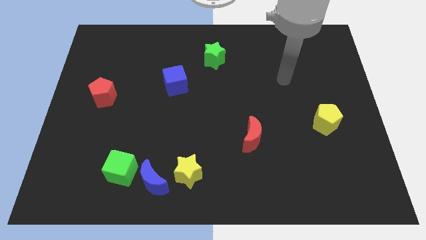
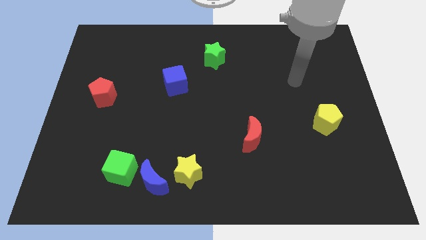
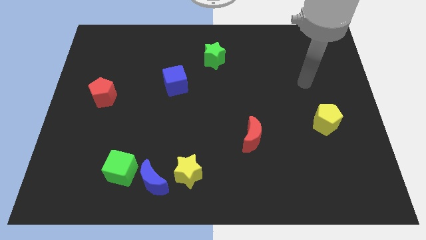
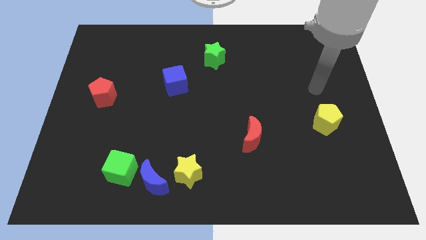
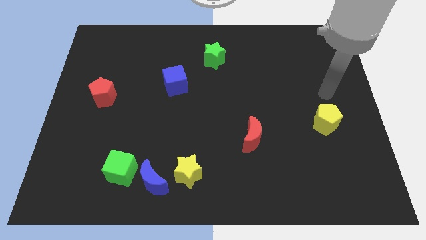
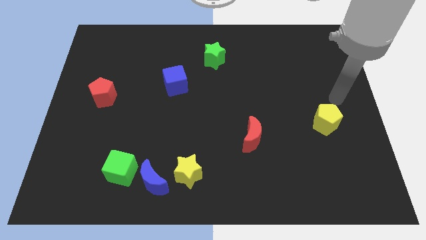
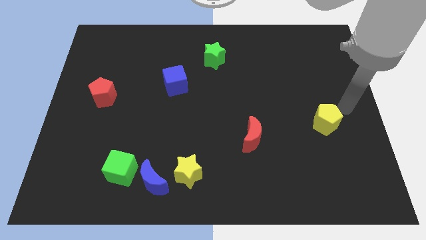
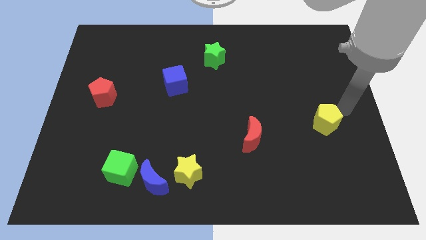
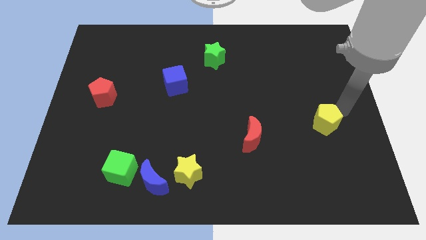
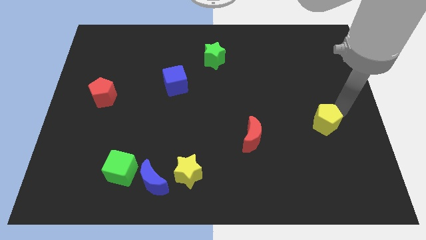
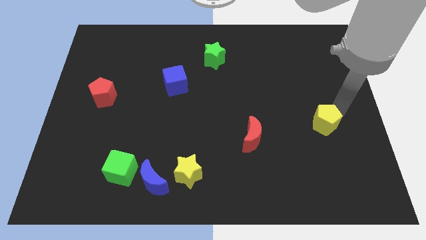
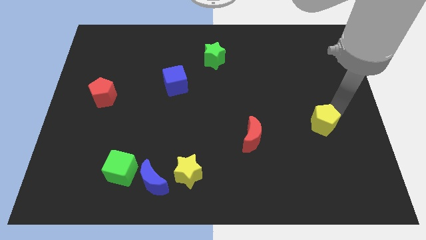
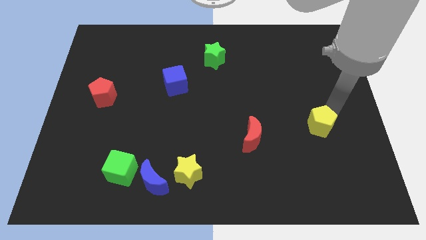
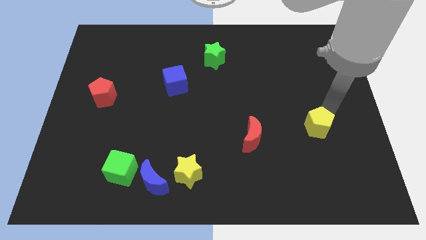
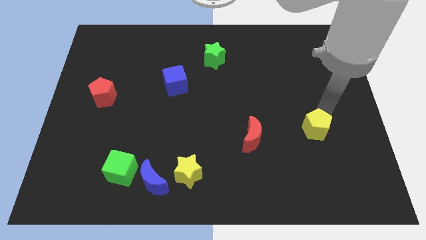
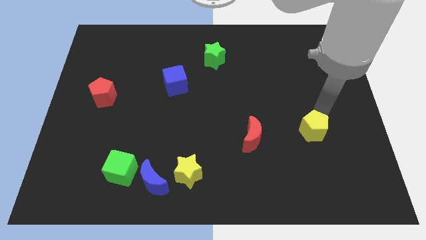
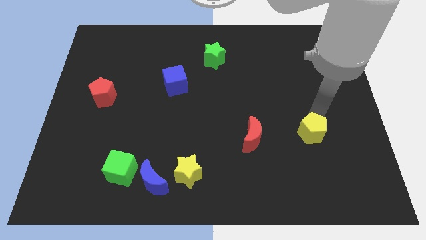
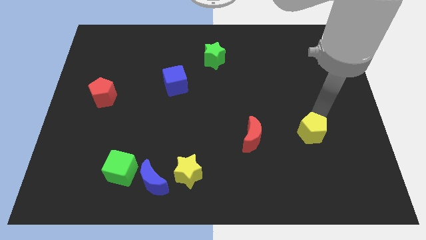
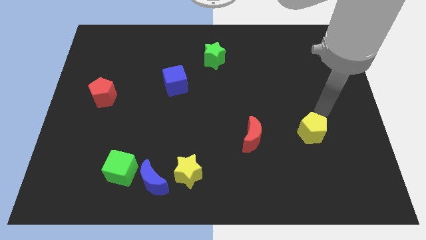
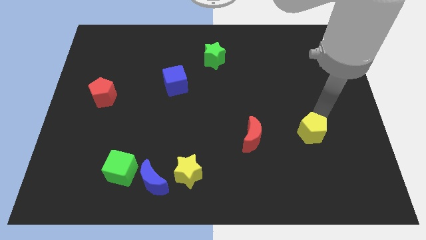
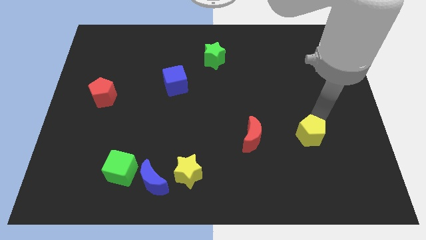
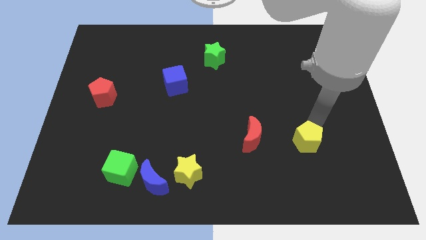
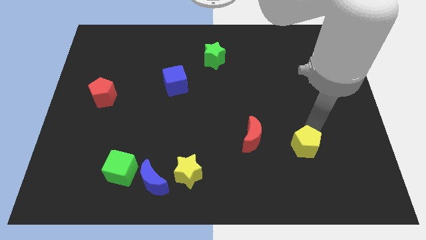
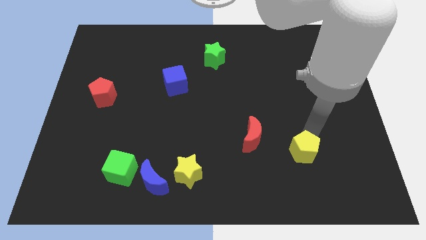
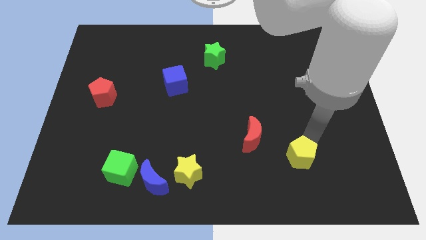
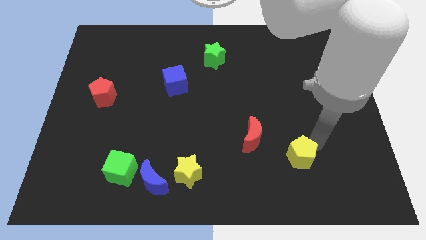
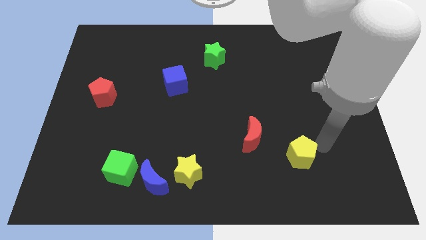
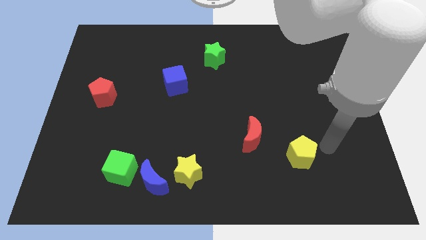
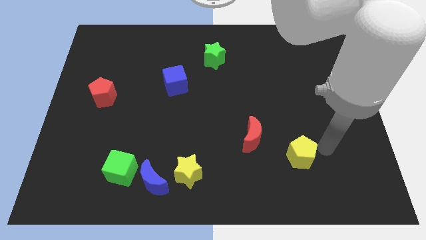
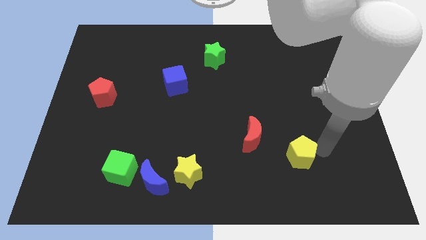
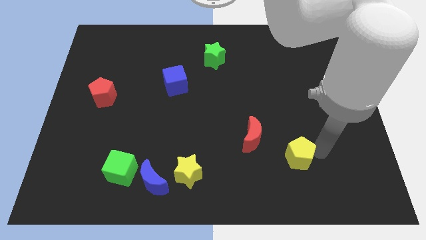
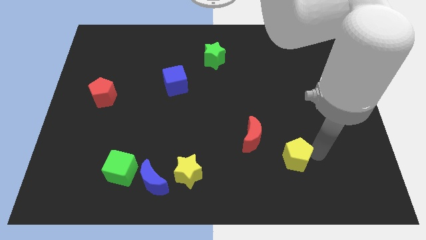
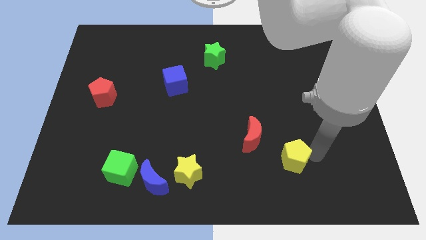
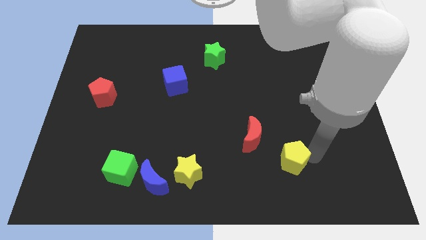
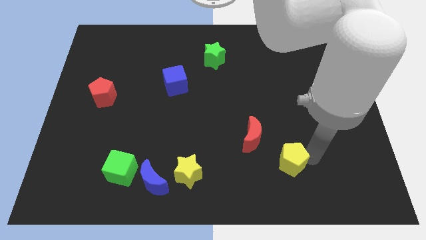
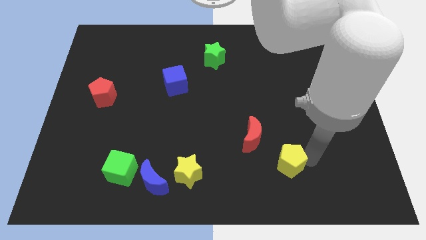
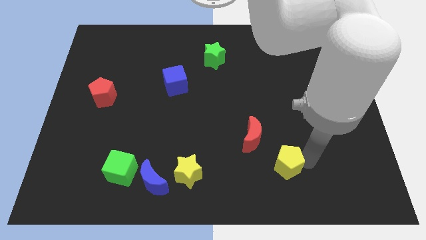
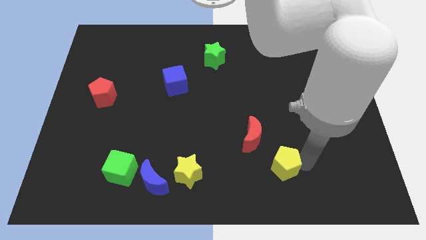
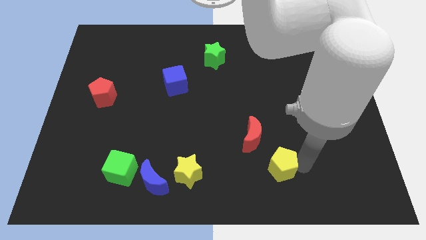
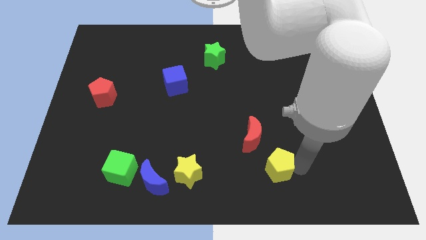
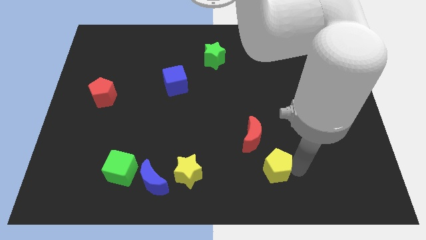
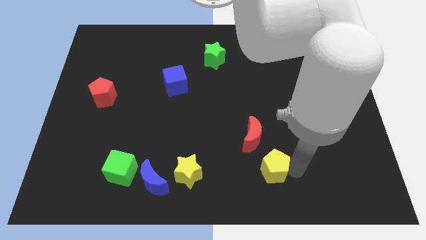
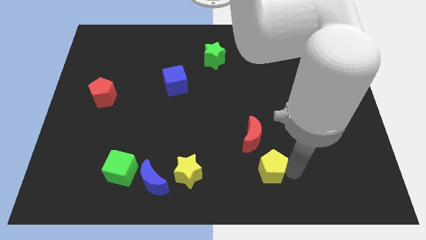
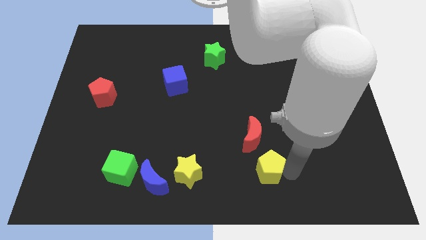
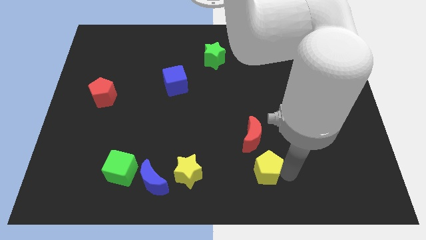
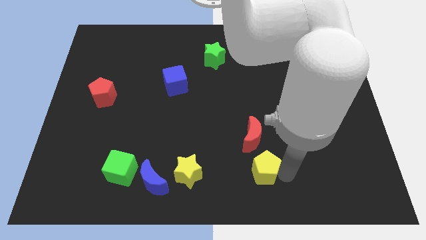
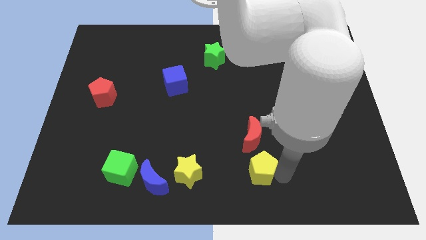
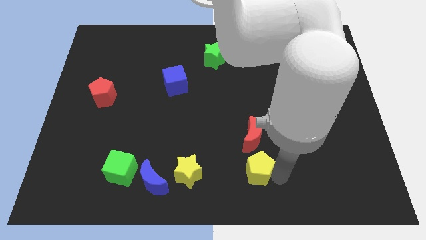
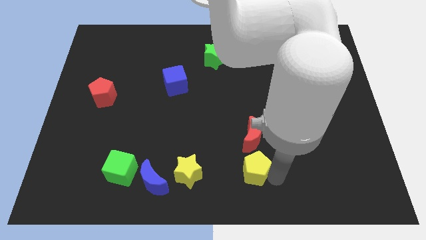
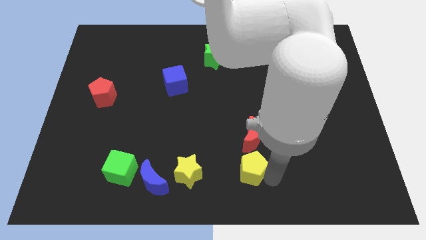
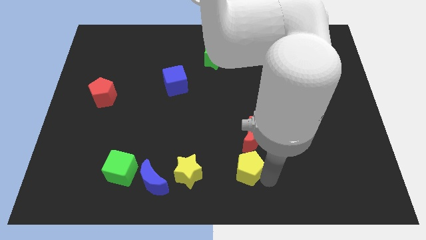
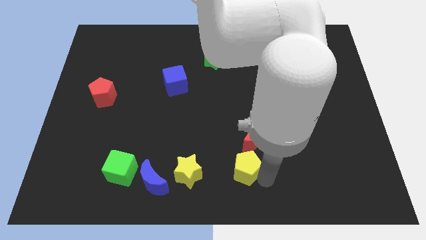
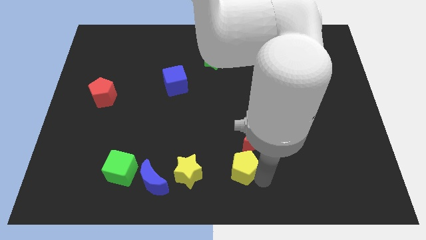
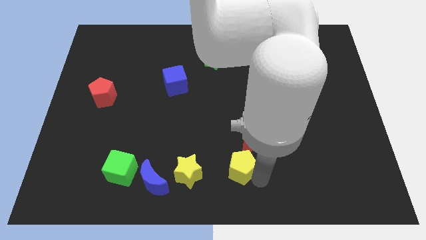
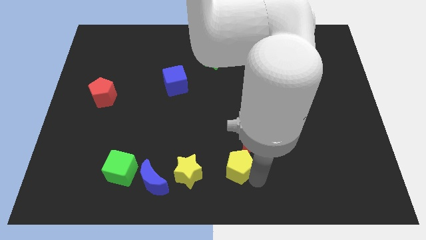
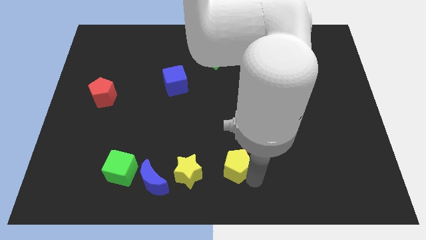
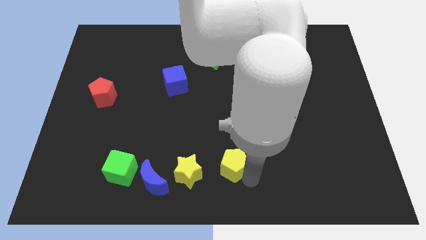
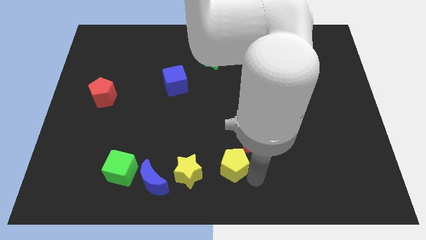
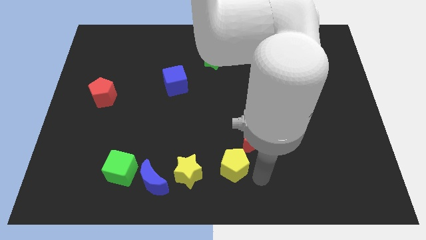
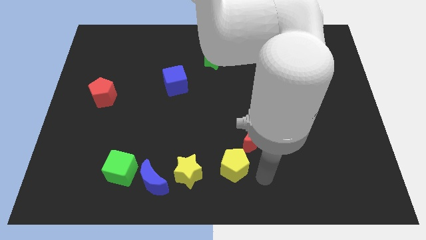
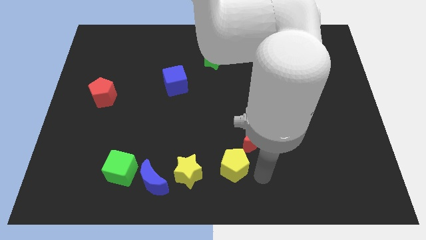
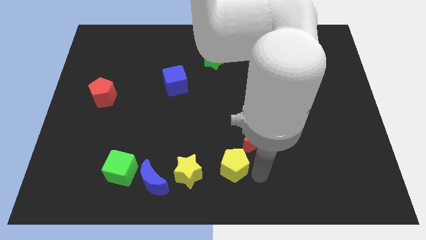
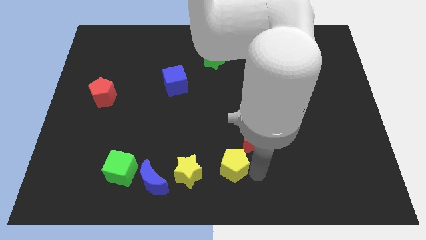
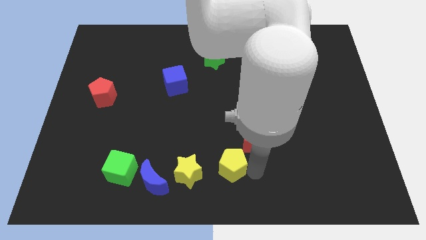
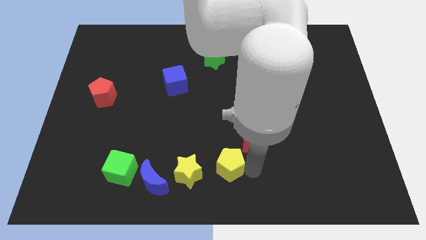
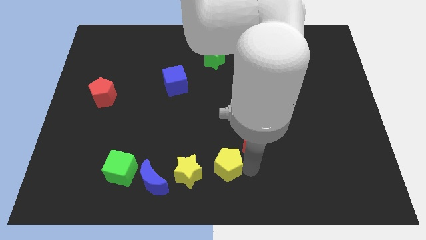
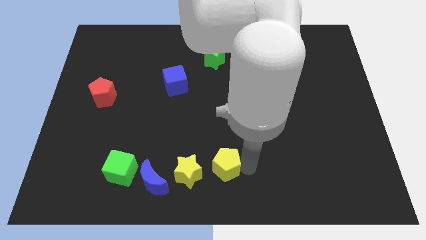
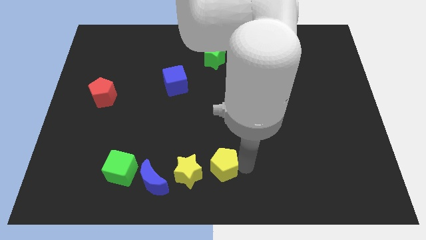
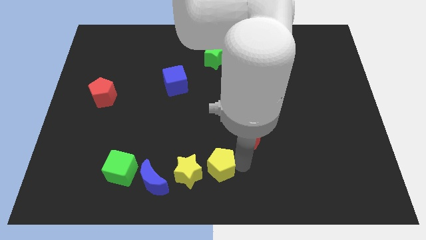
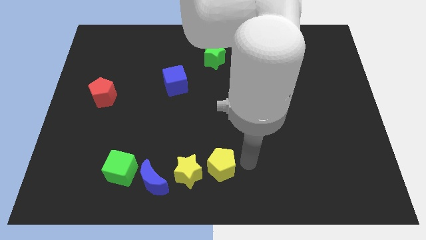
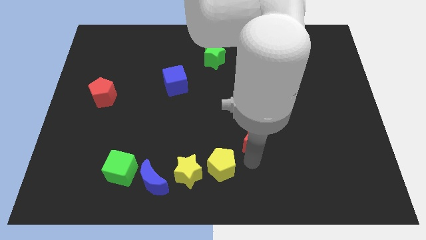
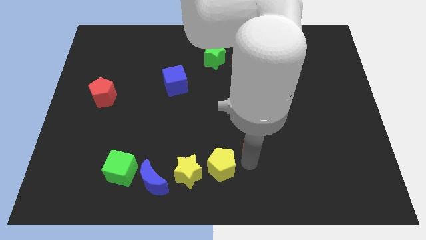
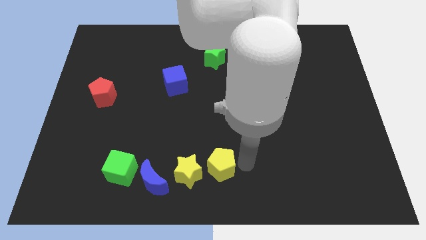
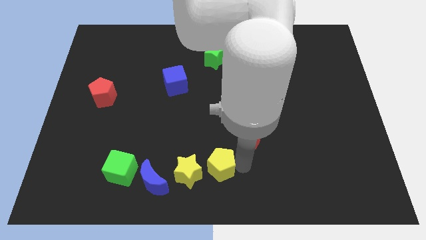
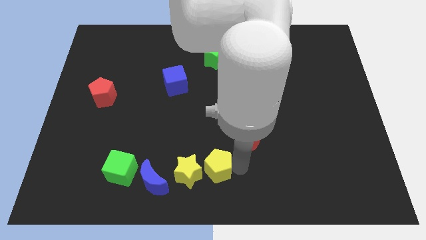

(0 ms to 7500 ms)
push the yellow pentagon close to the yellow star
